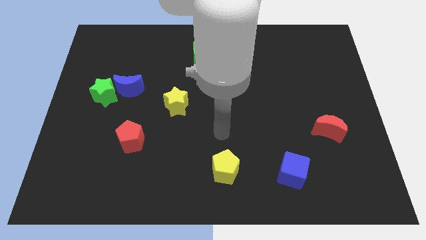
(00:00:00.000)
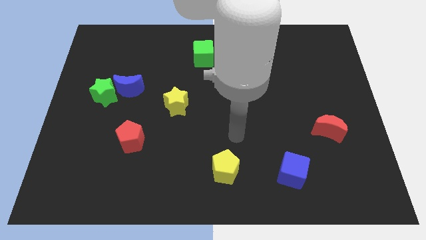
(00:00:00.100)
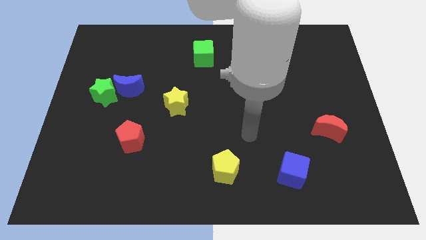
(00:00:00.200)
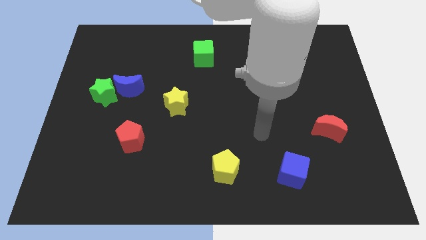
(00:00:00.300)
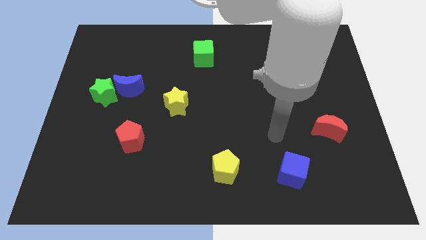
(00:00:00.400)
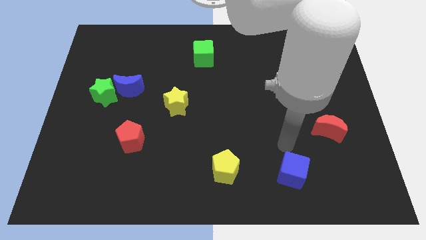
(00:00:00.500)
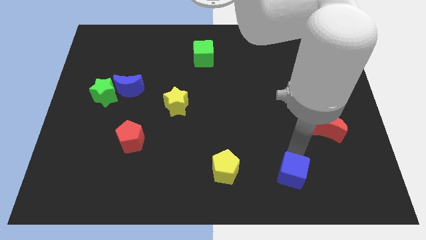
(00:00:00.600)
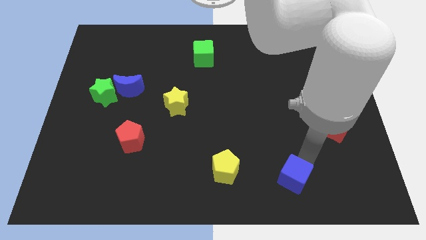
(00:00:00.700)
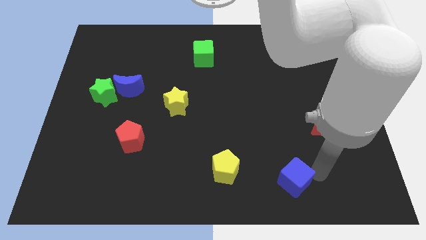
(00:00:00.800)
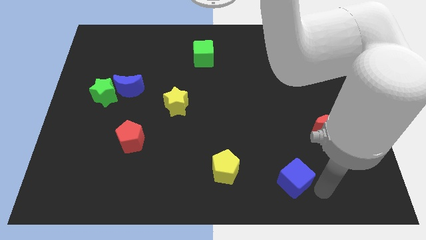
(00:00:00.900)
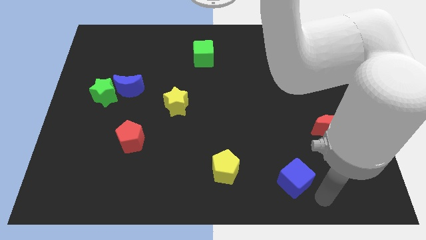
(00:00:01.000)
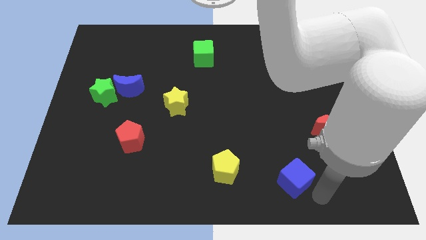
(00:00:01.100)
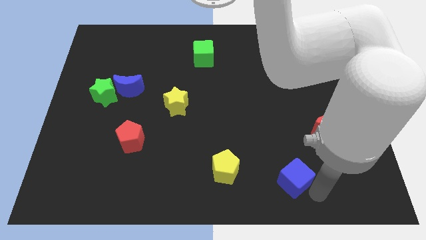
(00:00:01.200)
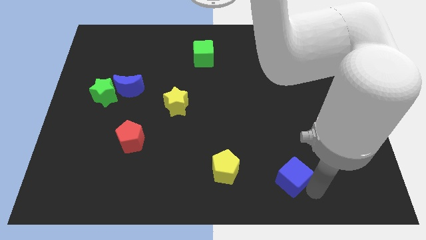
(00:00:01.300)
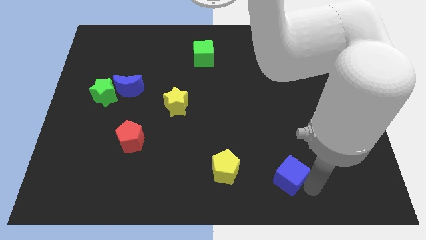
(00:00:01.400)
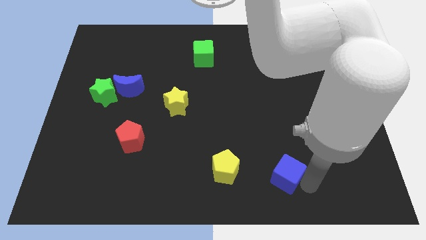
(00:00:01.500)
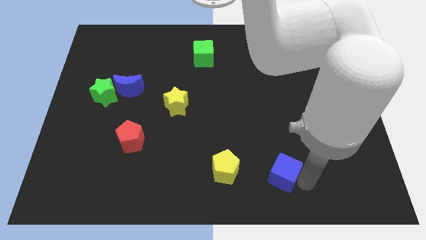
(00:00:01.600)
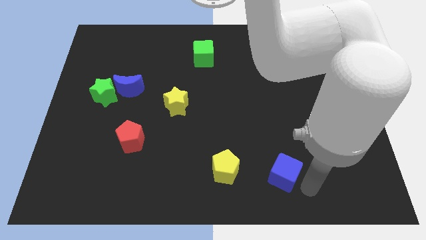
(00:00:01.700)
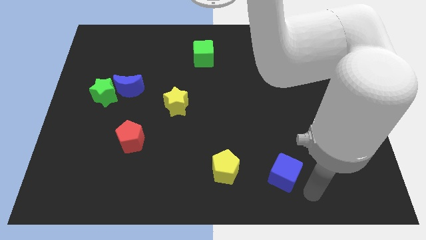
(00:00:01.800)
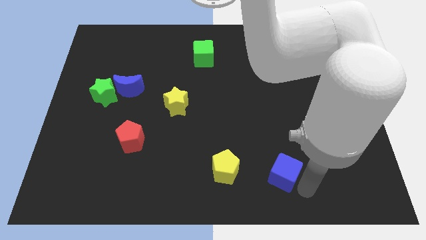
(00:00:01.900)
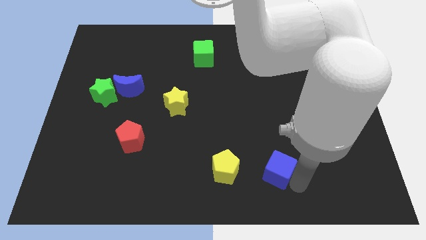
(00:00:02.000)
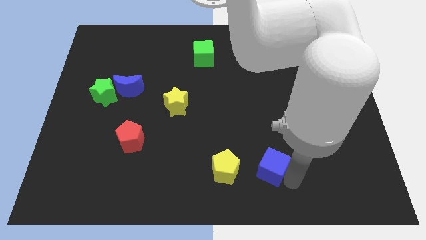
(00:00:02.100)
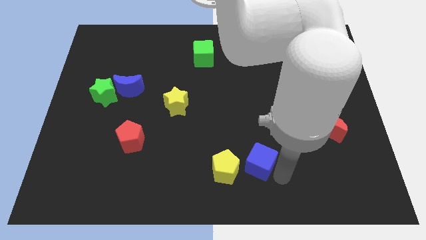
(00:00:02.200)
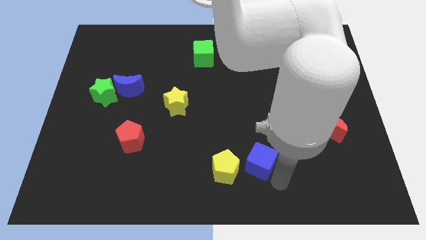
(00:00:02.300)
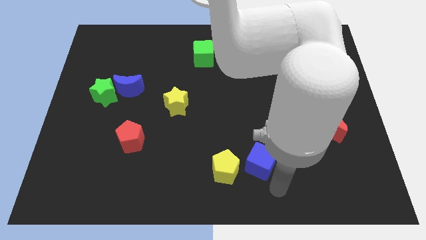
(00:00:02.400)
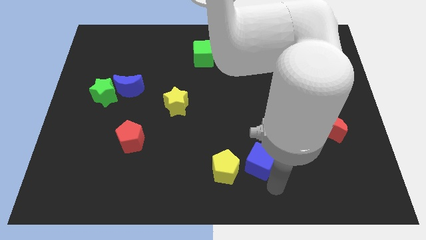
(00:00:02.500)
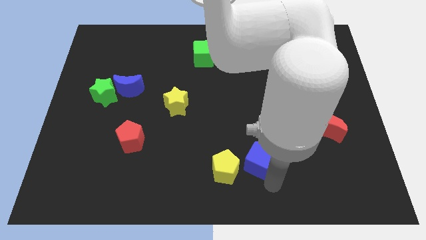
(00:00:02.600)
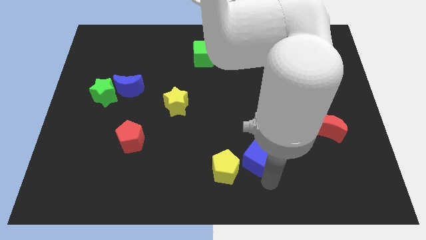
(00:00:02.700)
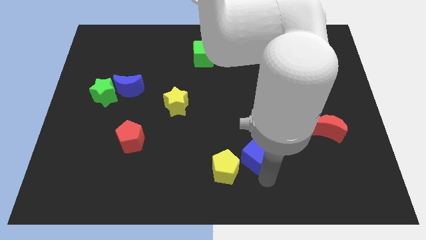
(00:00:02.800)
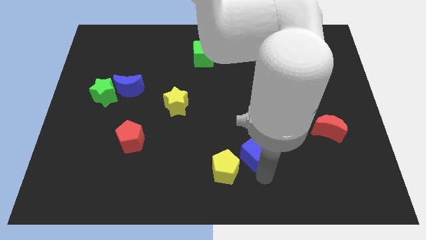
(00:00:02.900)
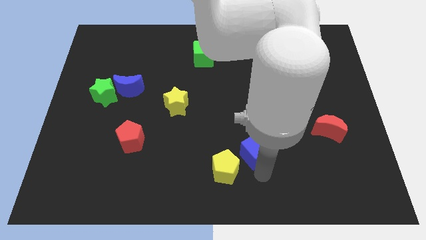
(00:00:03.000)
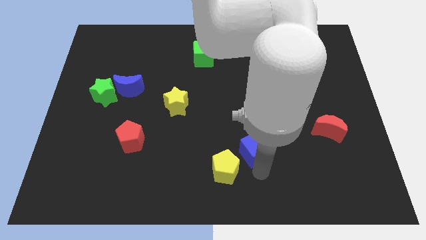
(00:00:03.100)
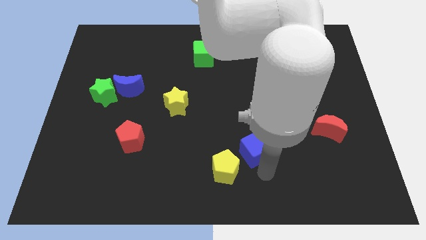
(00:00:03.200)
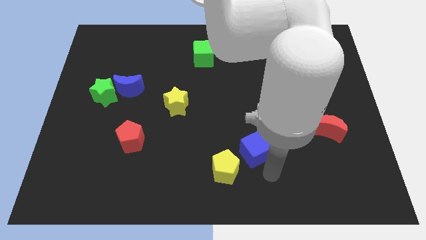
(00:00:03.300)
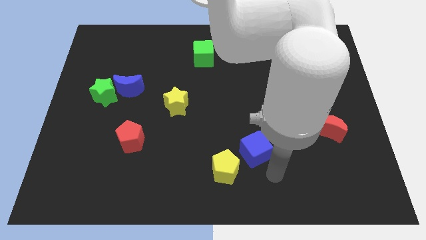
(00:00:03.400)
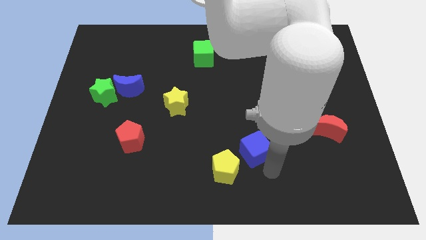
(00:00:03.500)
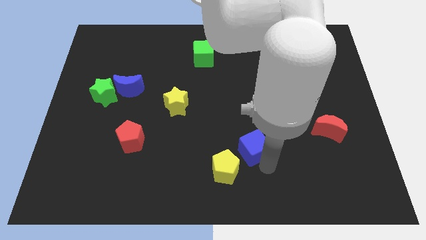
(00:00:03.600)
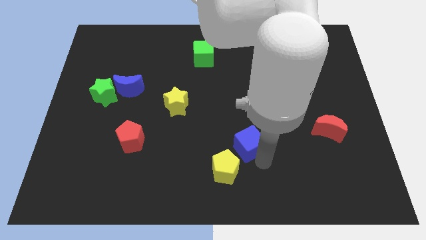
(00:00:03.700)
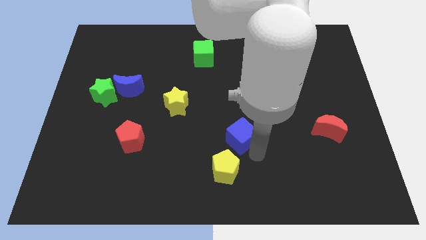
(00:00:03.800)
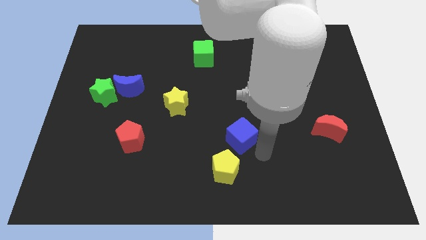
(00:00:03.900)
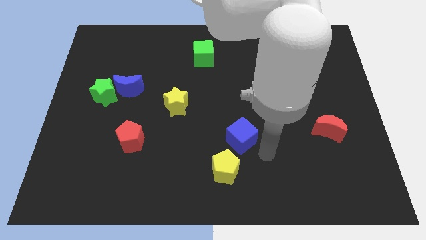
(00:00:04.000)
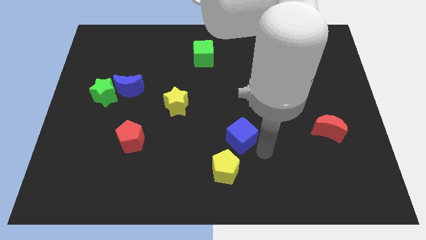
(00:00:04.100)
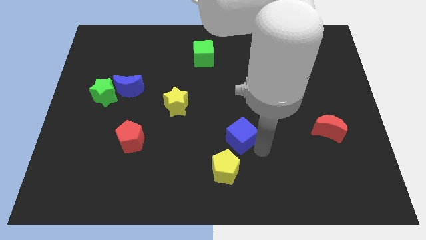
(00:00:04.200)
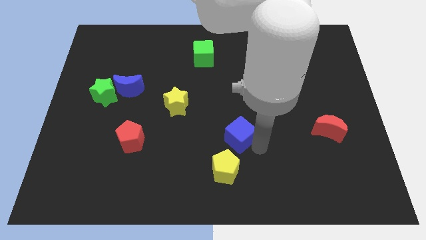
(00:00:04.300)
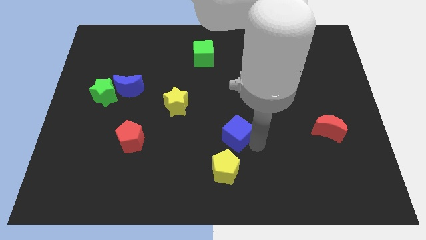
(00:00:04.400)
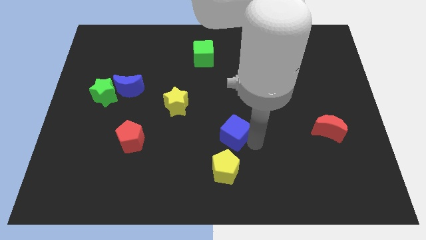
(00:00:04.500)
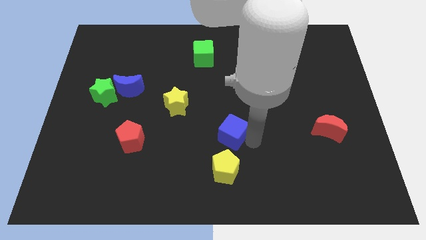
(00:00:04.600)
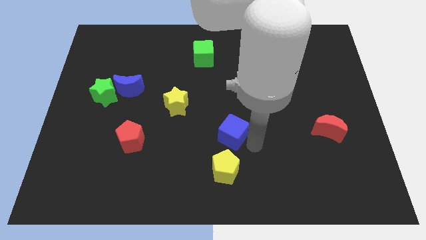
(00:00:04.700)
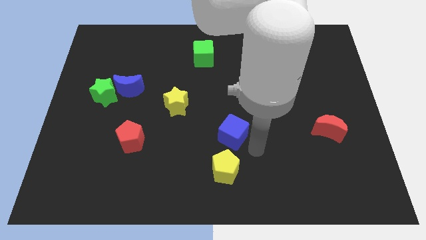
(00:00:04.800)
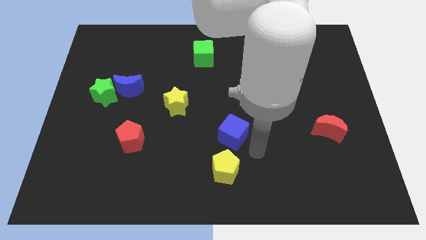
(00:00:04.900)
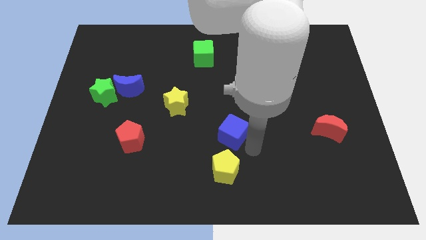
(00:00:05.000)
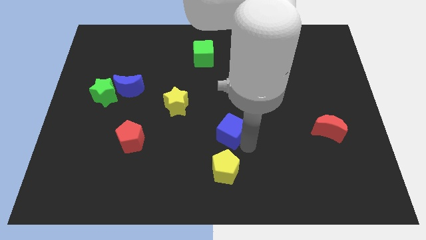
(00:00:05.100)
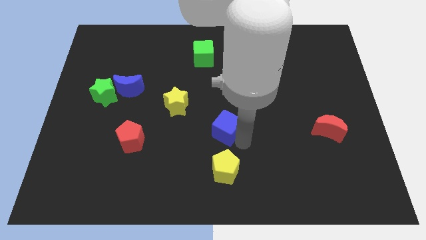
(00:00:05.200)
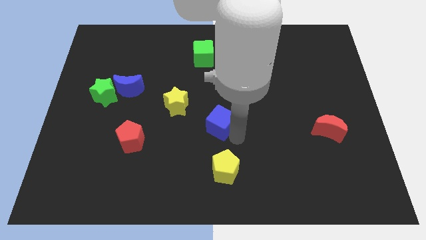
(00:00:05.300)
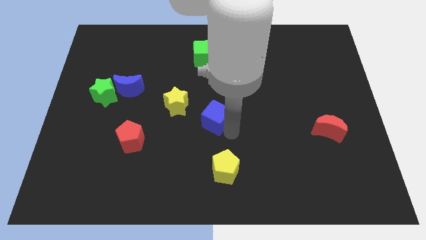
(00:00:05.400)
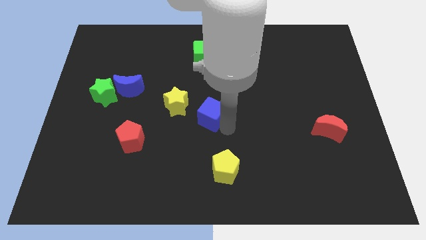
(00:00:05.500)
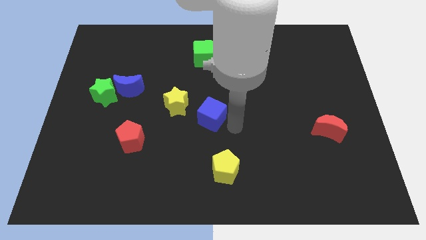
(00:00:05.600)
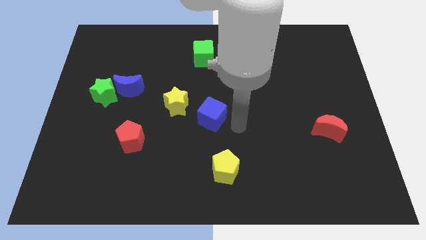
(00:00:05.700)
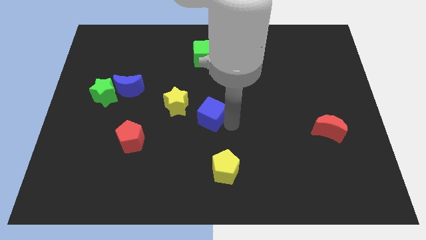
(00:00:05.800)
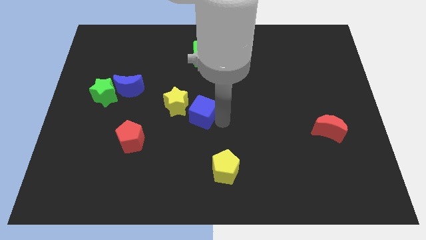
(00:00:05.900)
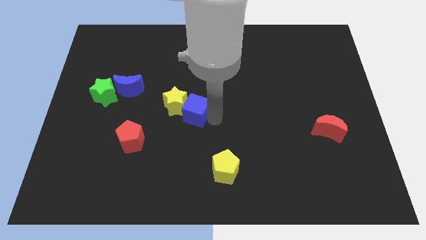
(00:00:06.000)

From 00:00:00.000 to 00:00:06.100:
push the blue cube to the yellow star

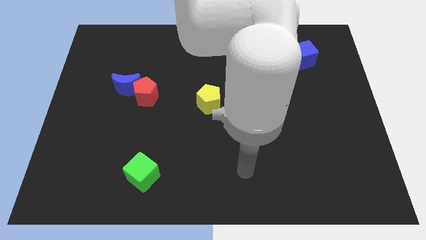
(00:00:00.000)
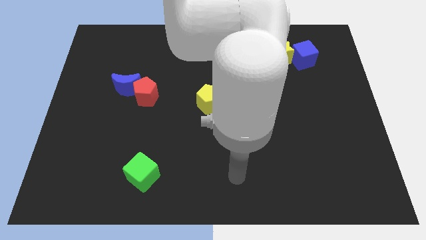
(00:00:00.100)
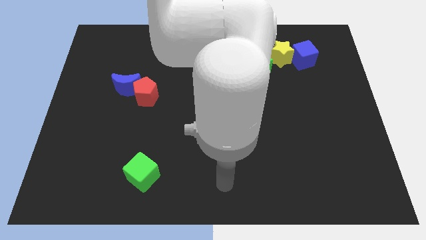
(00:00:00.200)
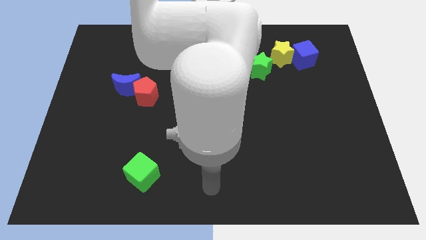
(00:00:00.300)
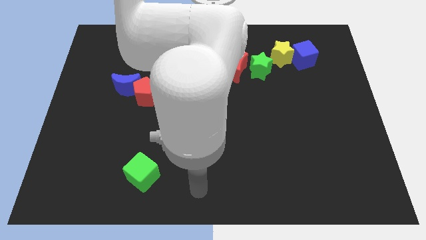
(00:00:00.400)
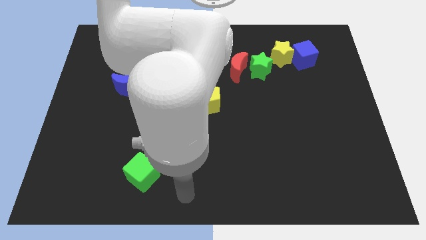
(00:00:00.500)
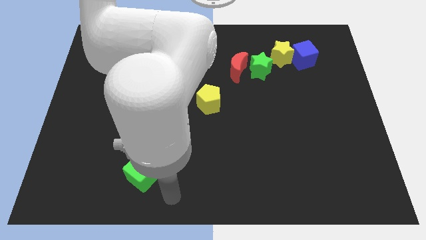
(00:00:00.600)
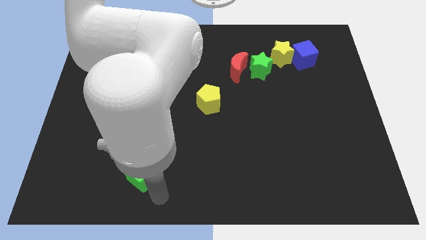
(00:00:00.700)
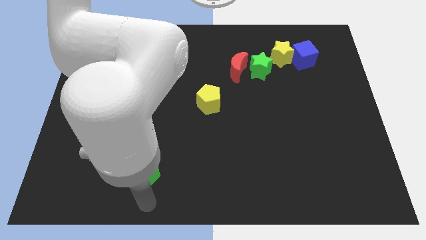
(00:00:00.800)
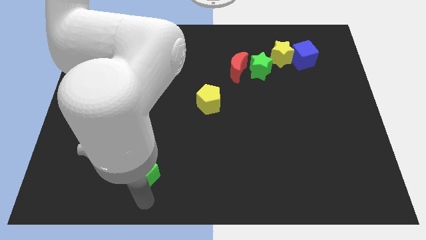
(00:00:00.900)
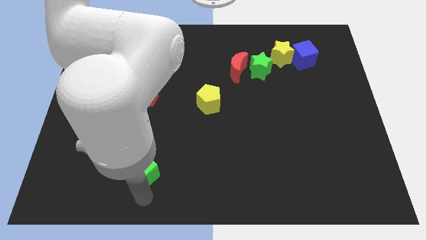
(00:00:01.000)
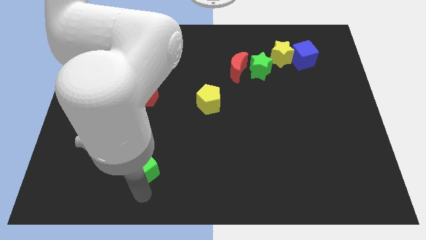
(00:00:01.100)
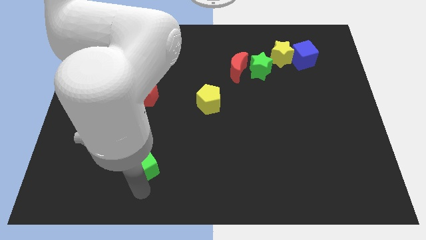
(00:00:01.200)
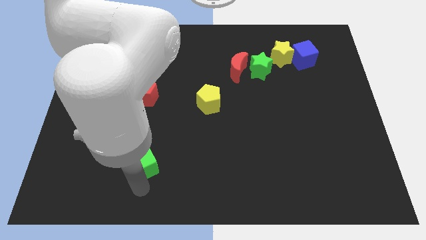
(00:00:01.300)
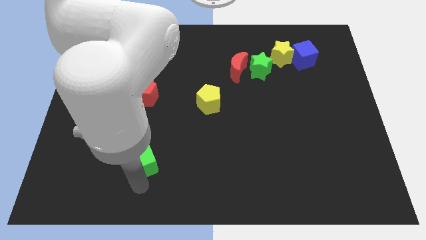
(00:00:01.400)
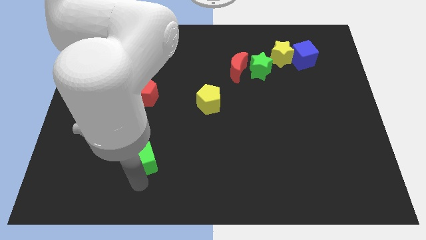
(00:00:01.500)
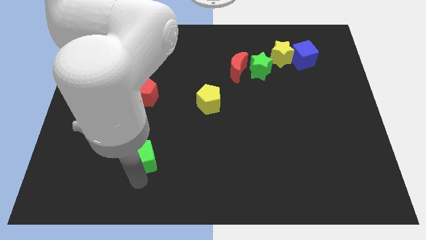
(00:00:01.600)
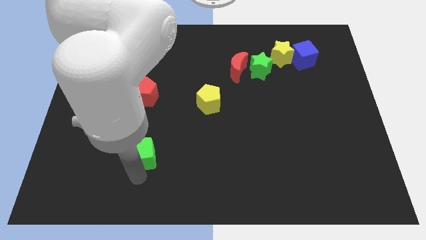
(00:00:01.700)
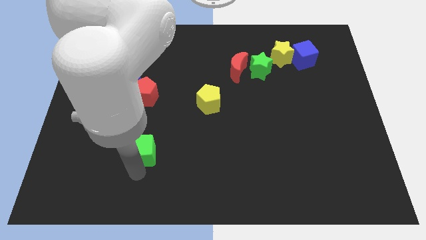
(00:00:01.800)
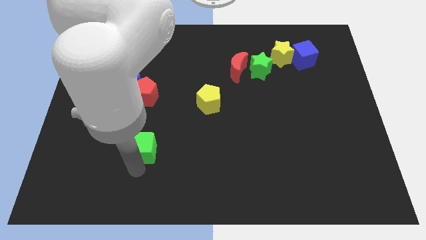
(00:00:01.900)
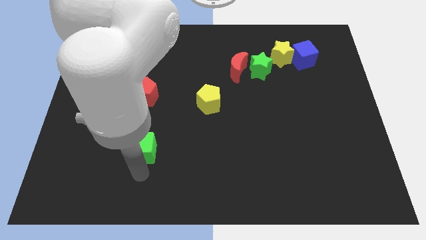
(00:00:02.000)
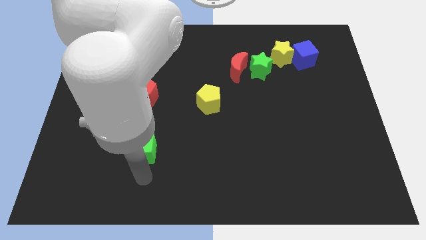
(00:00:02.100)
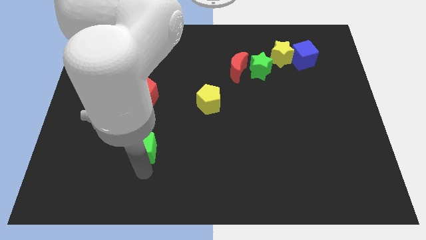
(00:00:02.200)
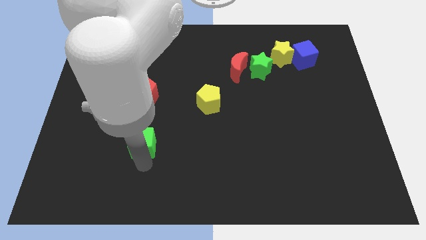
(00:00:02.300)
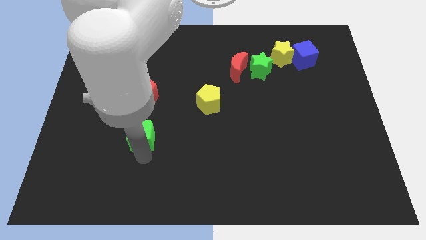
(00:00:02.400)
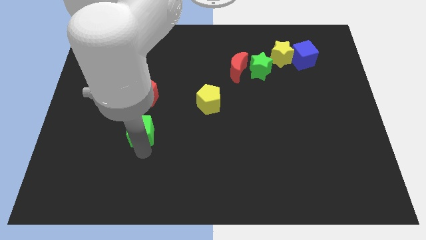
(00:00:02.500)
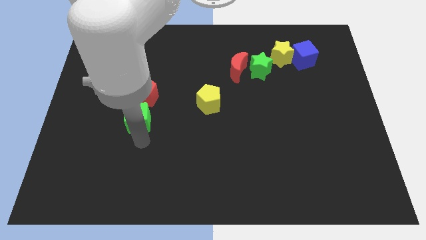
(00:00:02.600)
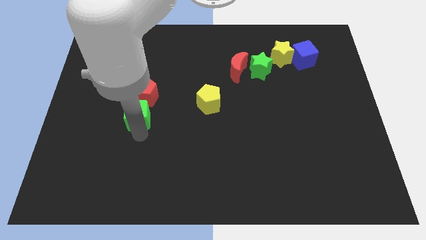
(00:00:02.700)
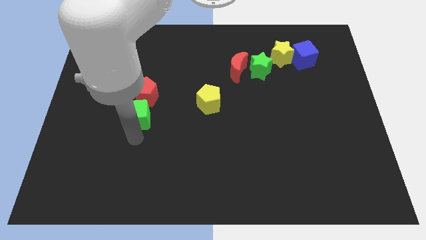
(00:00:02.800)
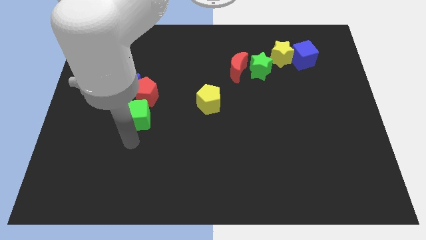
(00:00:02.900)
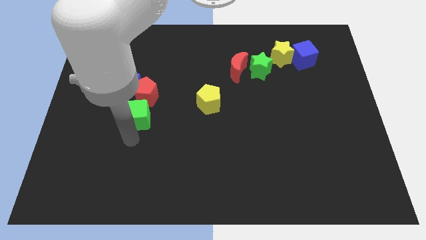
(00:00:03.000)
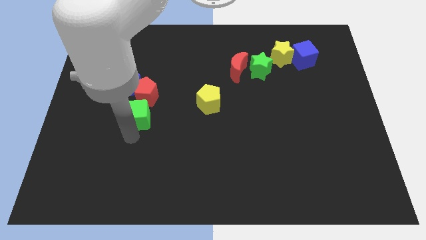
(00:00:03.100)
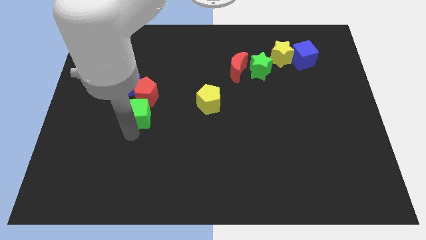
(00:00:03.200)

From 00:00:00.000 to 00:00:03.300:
slide the green cube to the red pentagon
